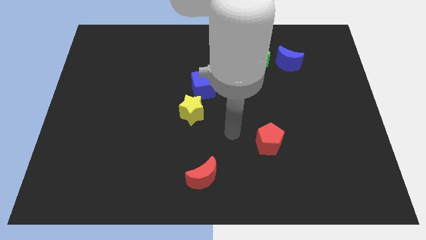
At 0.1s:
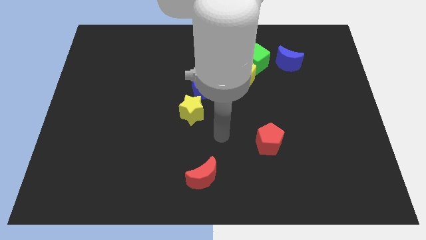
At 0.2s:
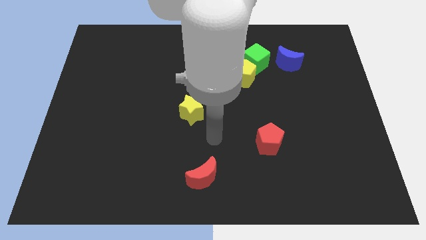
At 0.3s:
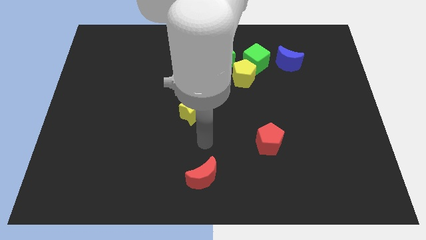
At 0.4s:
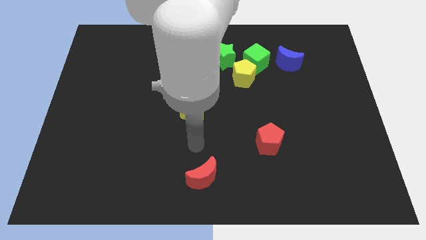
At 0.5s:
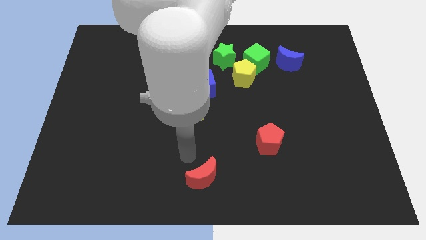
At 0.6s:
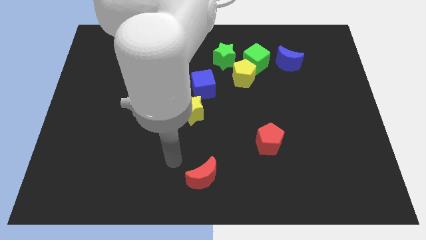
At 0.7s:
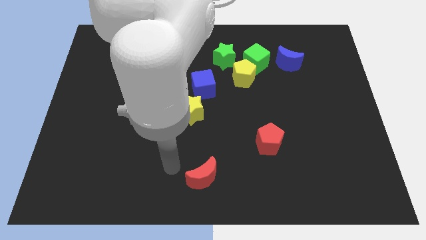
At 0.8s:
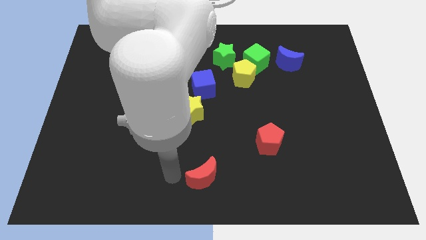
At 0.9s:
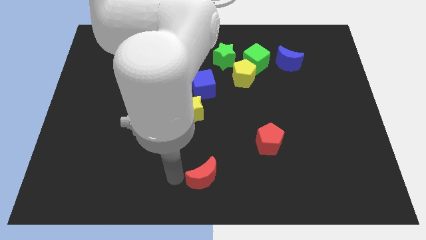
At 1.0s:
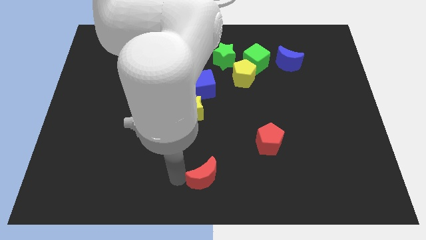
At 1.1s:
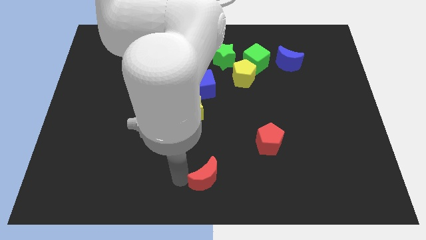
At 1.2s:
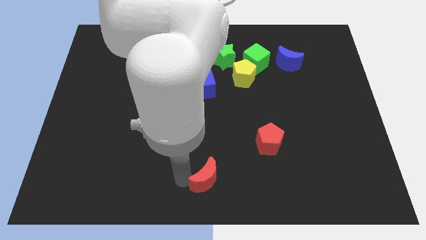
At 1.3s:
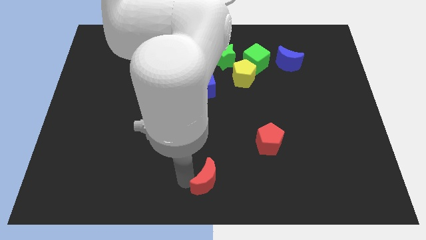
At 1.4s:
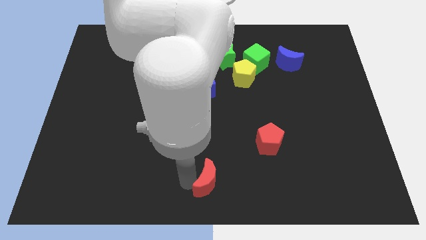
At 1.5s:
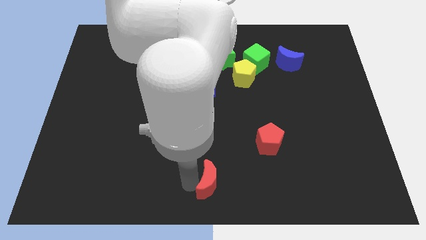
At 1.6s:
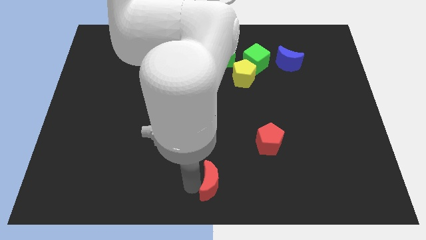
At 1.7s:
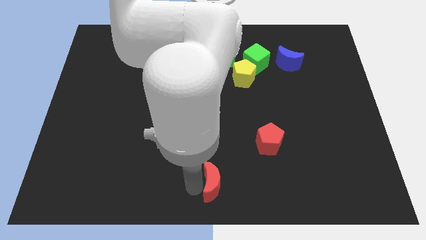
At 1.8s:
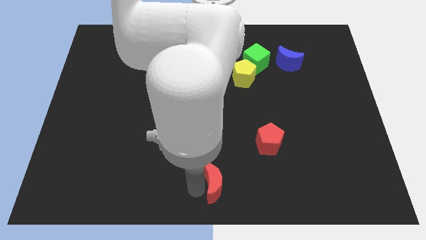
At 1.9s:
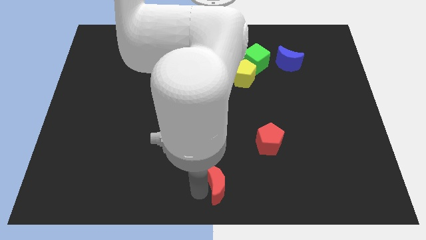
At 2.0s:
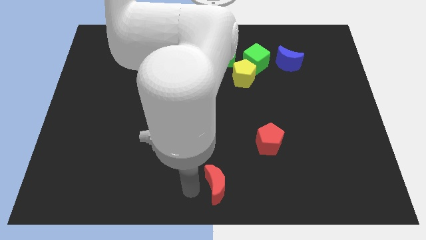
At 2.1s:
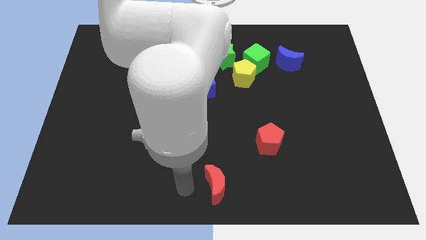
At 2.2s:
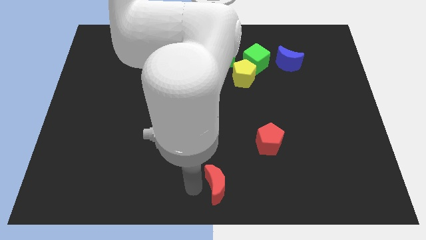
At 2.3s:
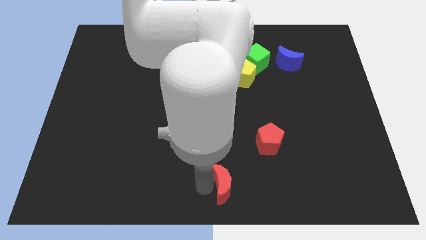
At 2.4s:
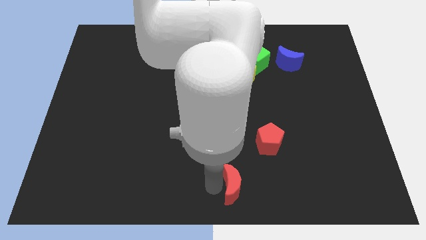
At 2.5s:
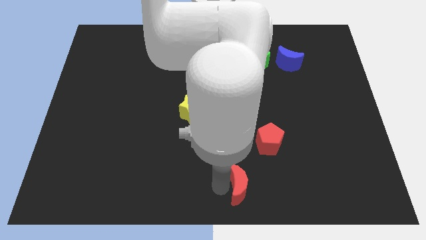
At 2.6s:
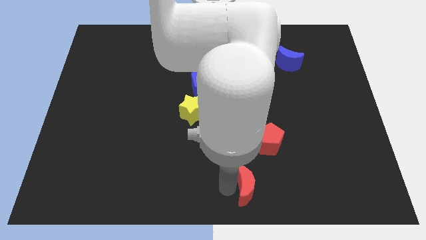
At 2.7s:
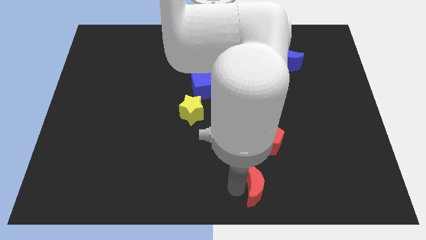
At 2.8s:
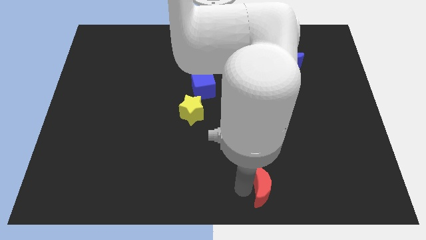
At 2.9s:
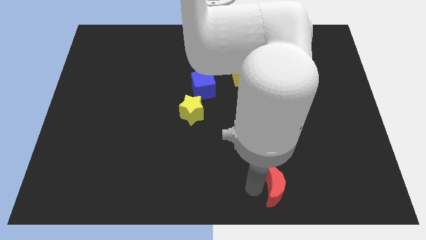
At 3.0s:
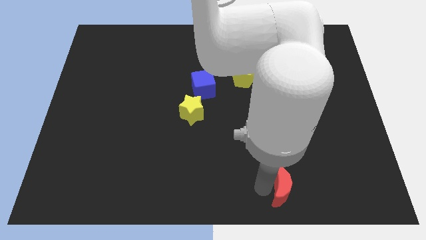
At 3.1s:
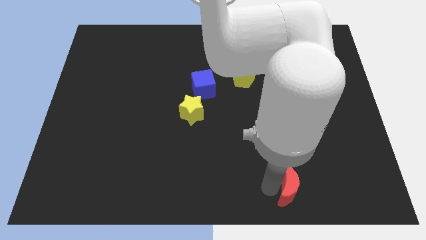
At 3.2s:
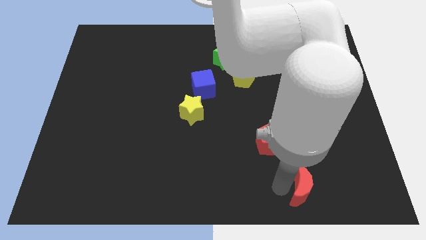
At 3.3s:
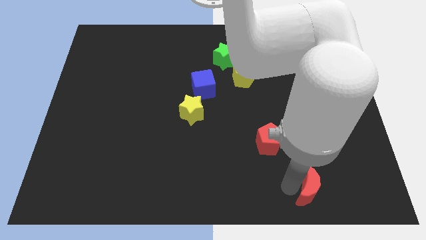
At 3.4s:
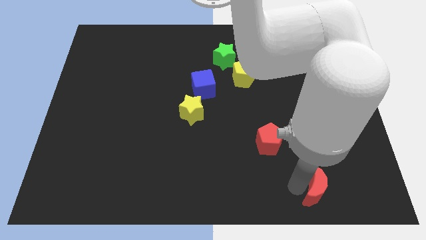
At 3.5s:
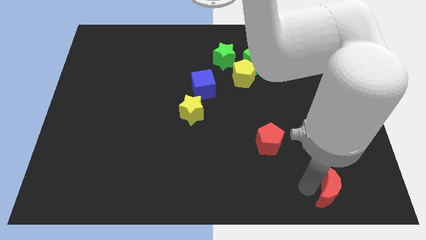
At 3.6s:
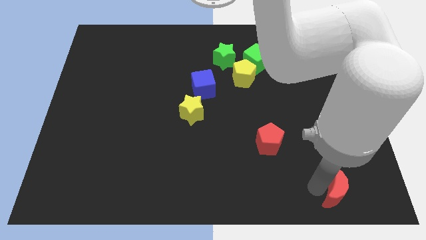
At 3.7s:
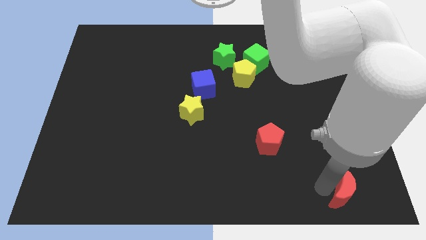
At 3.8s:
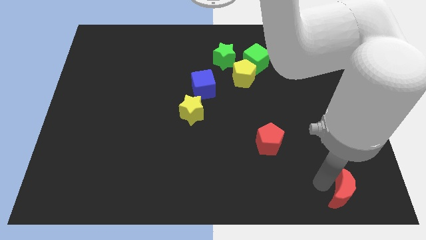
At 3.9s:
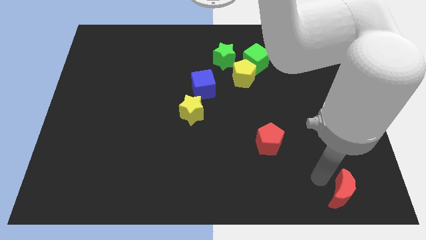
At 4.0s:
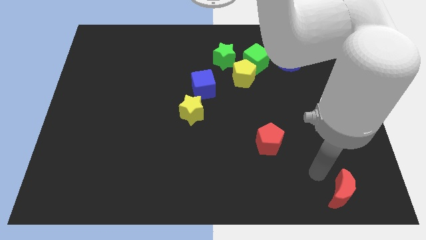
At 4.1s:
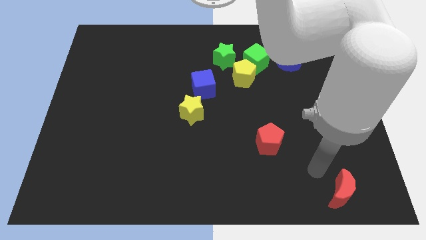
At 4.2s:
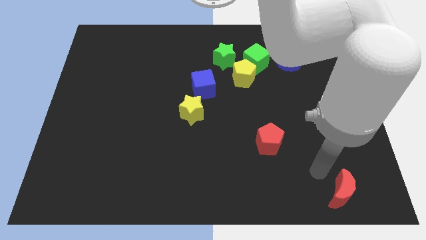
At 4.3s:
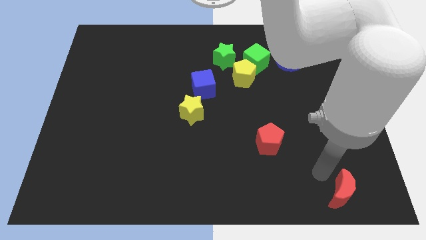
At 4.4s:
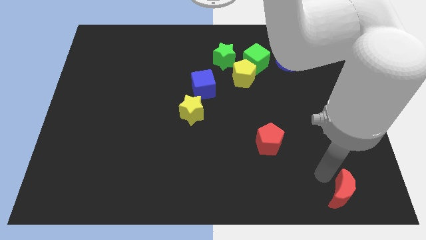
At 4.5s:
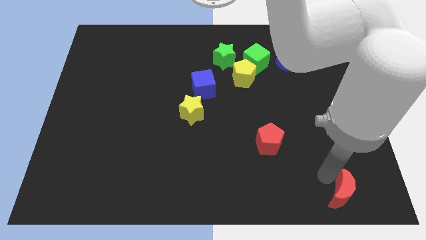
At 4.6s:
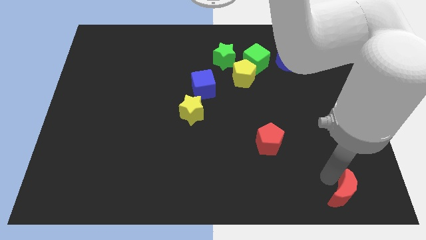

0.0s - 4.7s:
move the red moon to the bottom right of the board

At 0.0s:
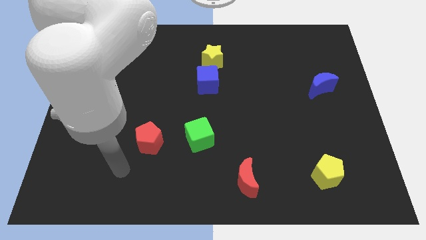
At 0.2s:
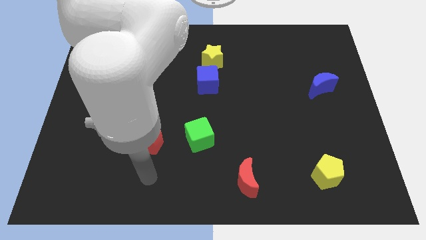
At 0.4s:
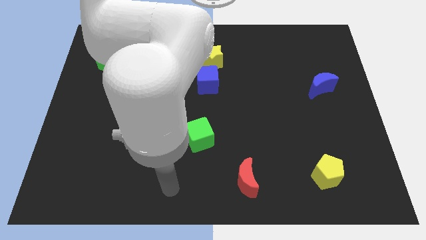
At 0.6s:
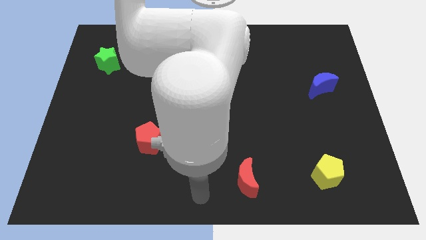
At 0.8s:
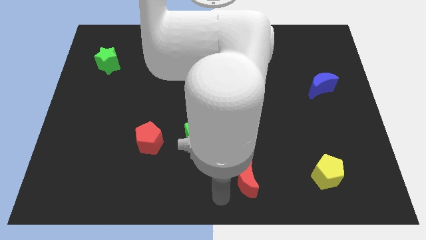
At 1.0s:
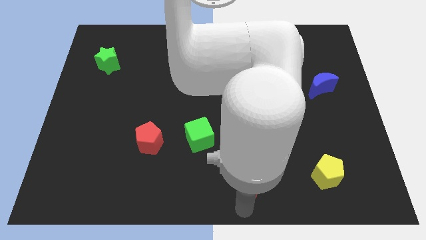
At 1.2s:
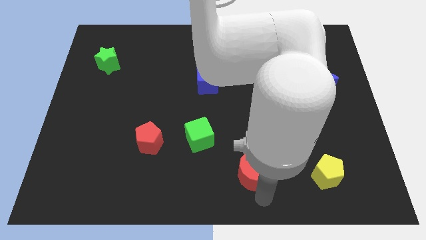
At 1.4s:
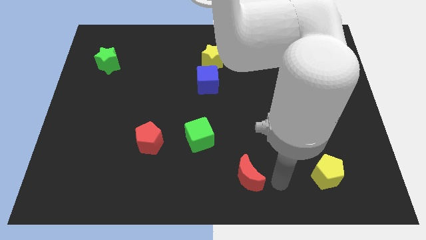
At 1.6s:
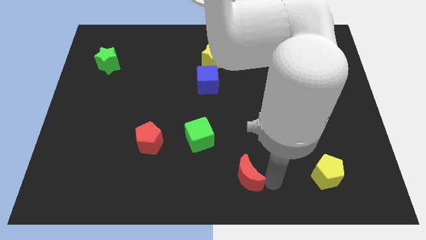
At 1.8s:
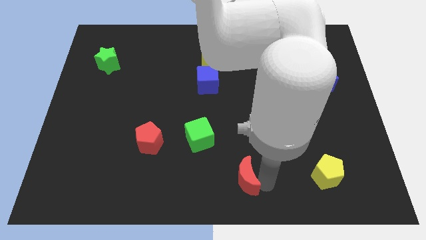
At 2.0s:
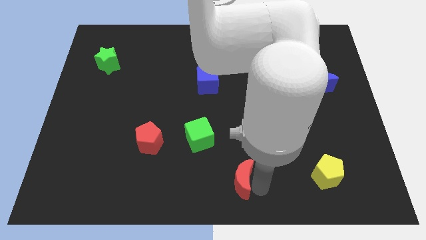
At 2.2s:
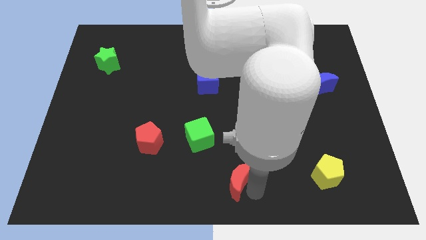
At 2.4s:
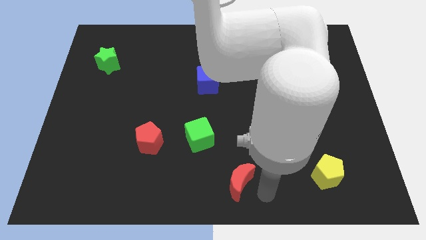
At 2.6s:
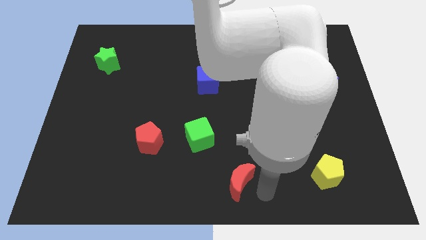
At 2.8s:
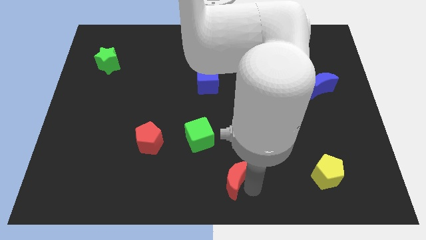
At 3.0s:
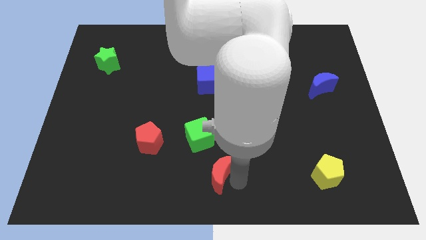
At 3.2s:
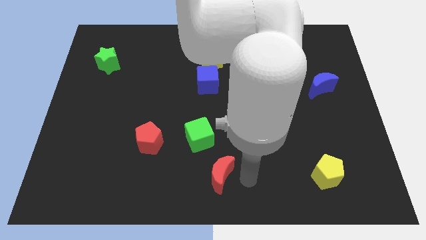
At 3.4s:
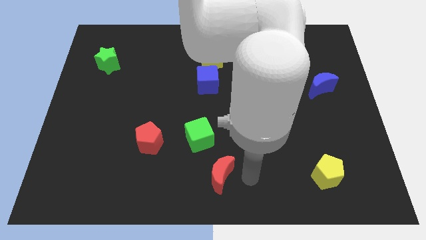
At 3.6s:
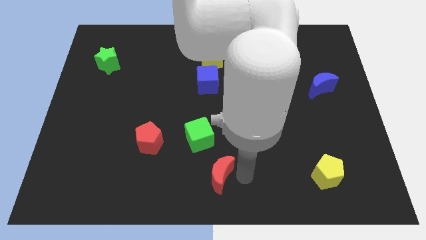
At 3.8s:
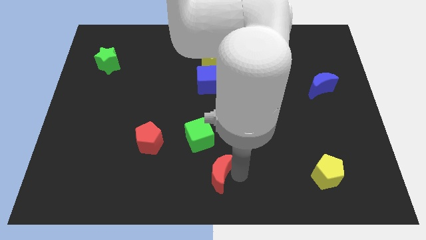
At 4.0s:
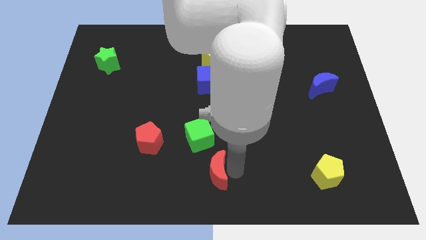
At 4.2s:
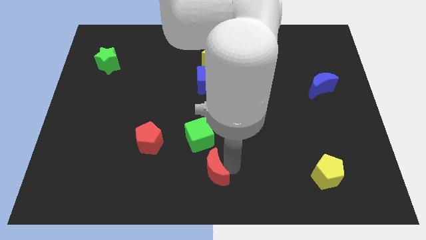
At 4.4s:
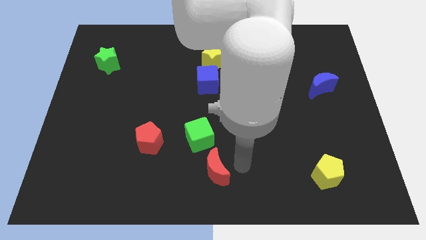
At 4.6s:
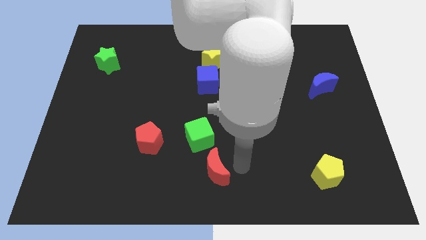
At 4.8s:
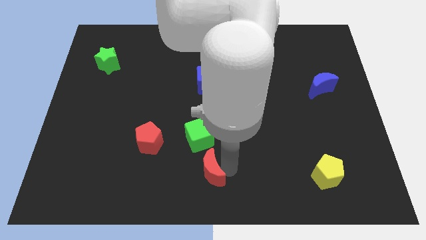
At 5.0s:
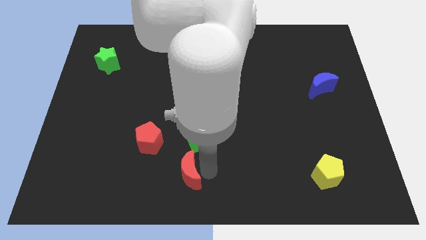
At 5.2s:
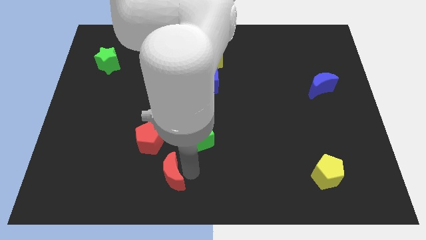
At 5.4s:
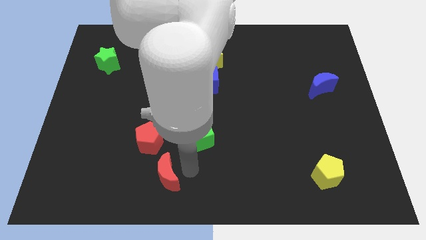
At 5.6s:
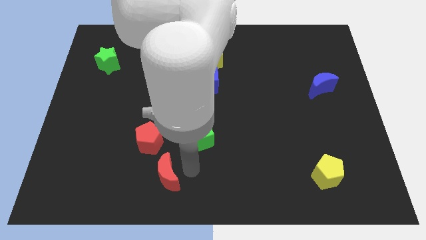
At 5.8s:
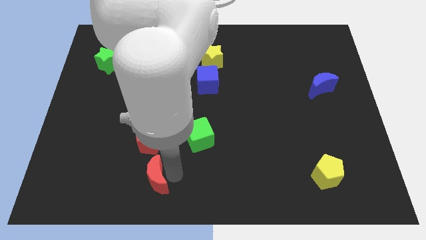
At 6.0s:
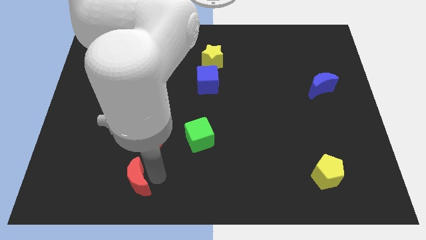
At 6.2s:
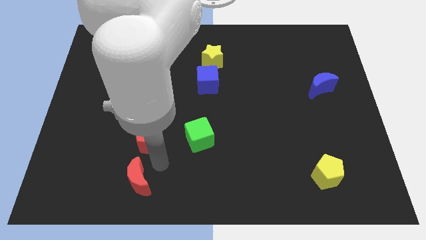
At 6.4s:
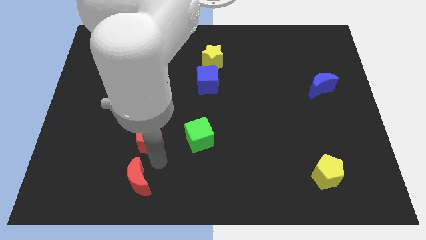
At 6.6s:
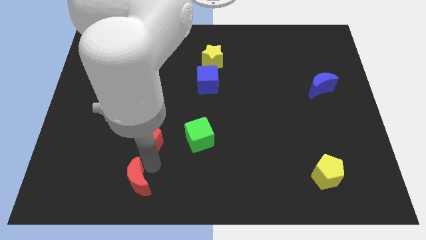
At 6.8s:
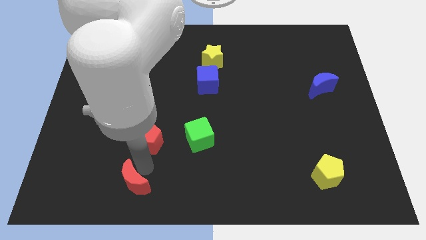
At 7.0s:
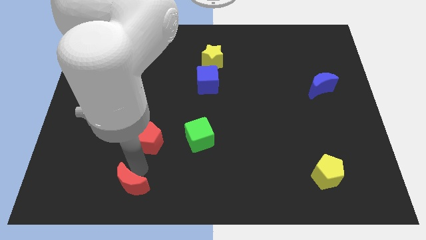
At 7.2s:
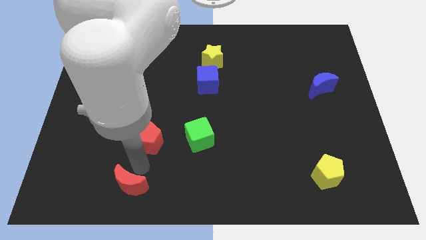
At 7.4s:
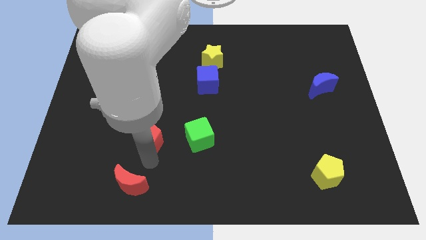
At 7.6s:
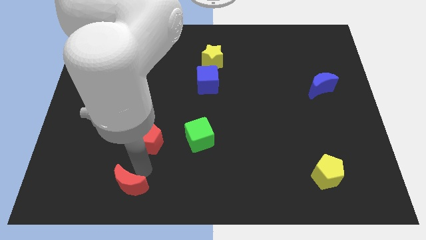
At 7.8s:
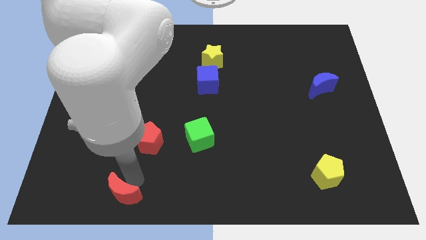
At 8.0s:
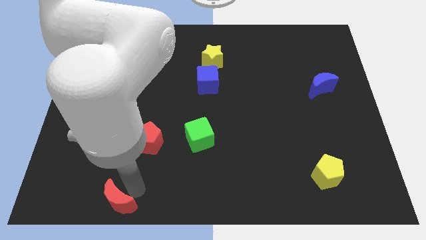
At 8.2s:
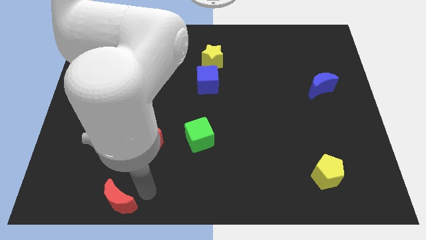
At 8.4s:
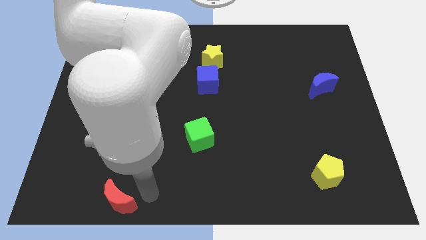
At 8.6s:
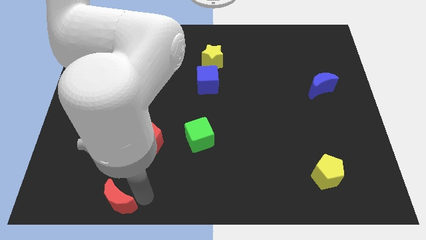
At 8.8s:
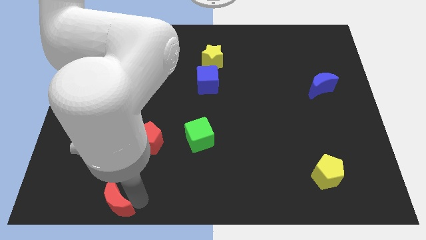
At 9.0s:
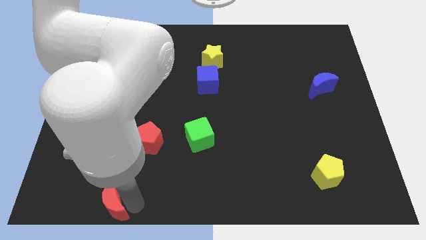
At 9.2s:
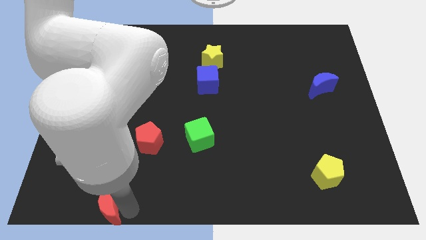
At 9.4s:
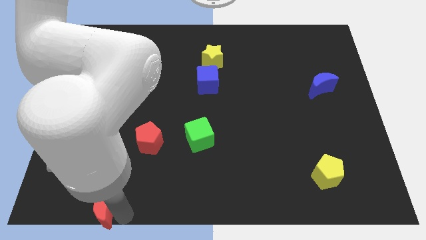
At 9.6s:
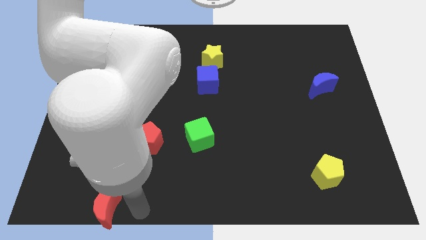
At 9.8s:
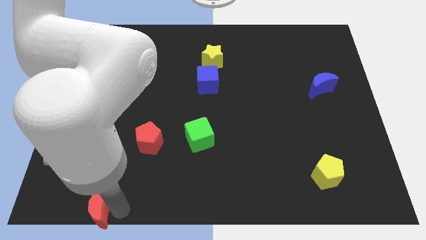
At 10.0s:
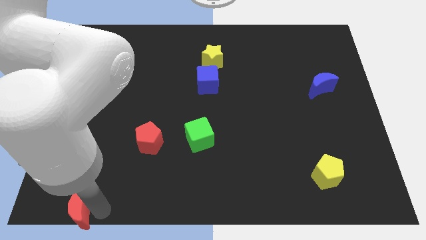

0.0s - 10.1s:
put the red moon to the bottom left
